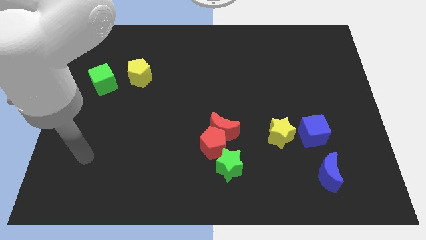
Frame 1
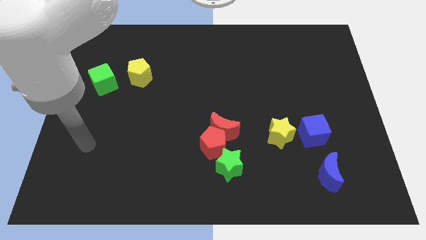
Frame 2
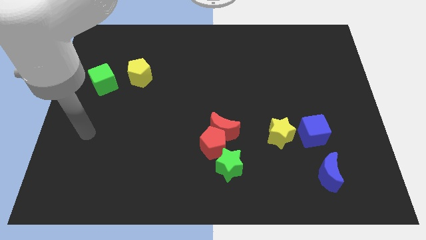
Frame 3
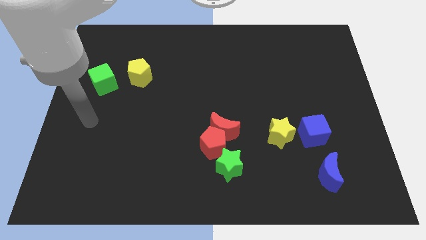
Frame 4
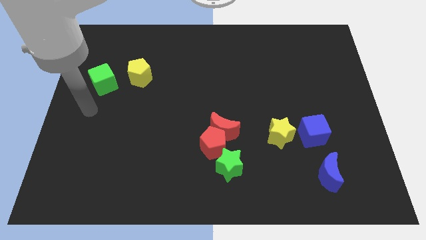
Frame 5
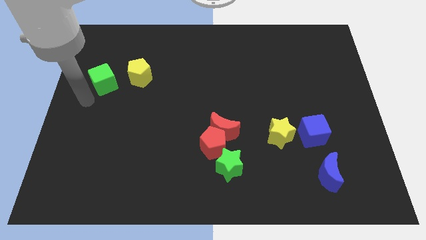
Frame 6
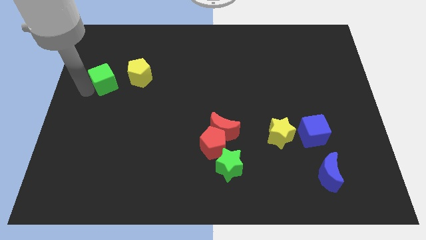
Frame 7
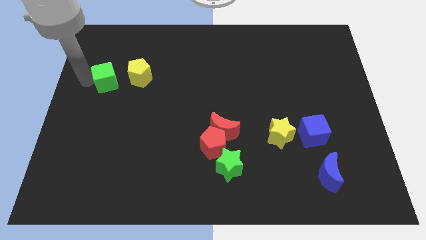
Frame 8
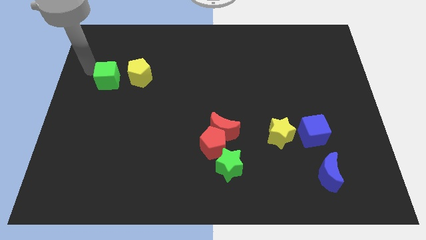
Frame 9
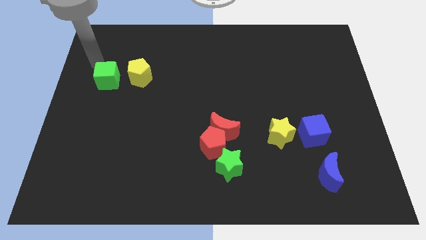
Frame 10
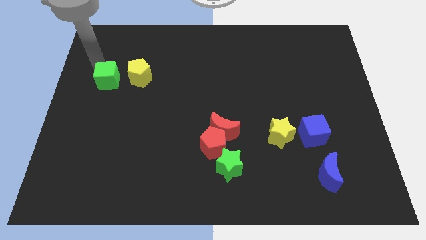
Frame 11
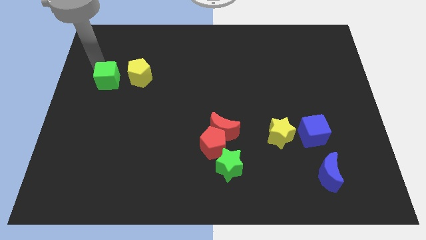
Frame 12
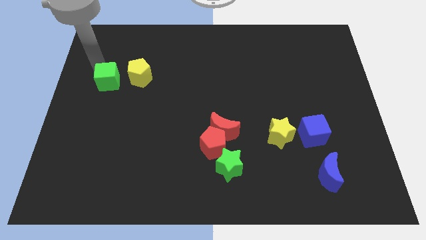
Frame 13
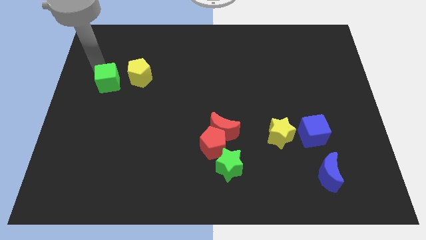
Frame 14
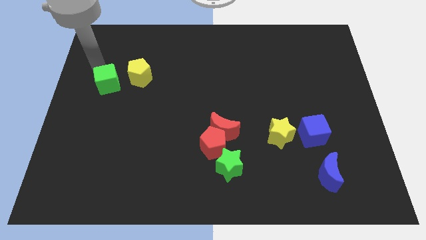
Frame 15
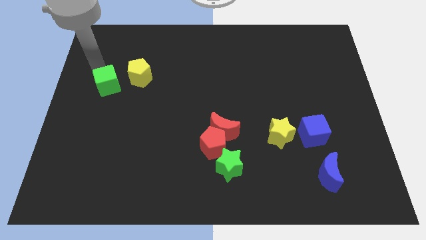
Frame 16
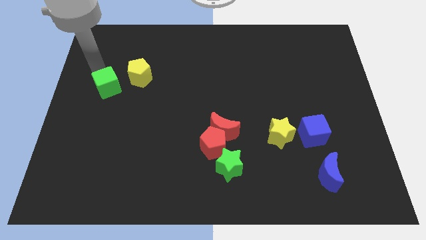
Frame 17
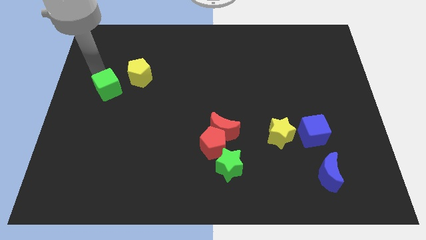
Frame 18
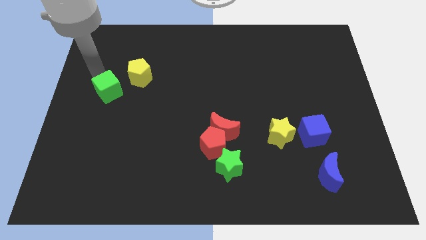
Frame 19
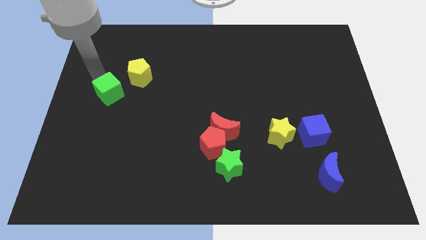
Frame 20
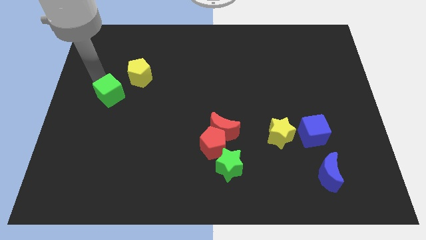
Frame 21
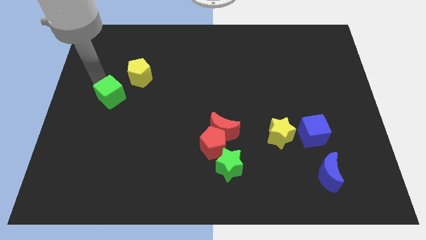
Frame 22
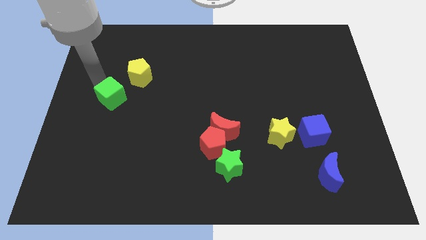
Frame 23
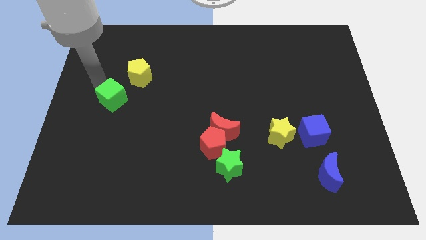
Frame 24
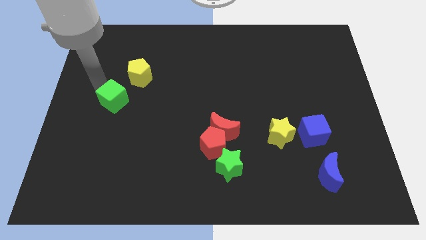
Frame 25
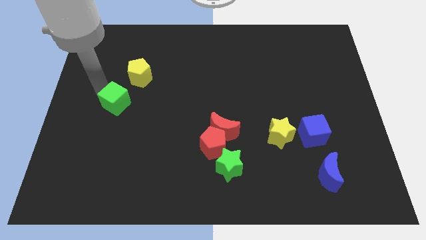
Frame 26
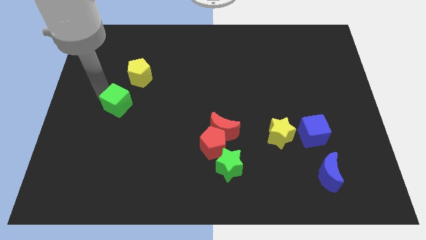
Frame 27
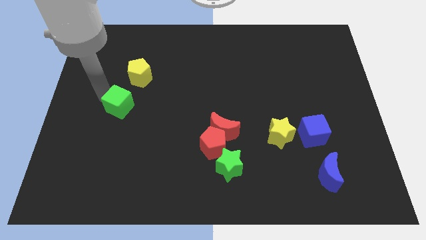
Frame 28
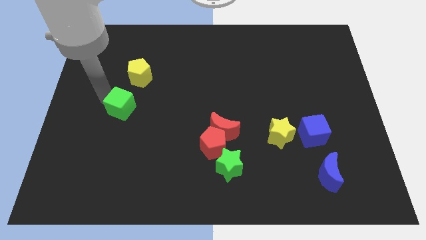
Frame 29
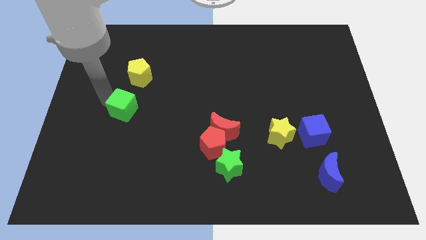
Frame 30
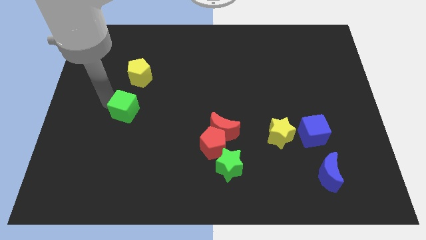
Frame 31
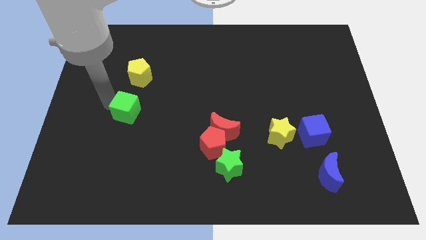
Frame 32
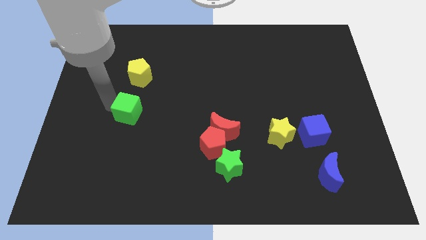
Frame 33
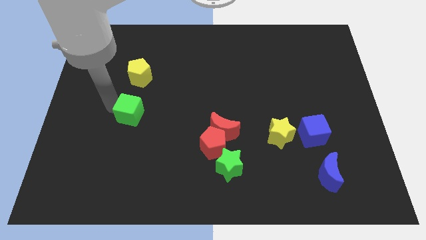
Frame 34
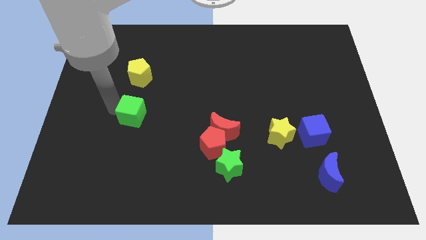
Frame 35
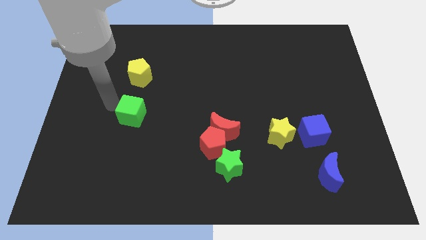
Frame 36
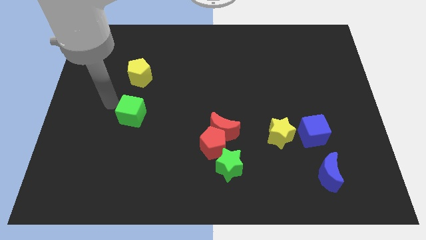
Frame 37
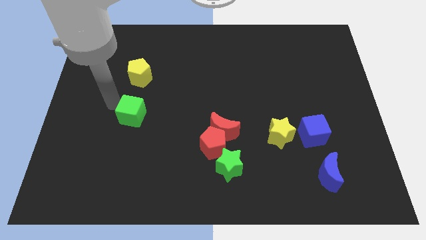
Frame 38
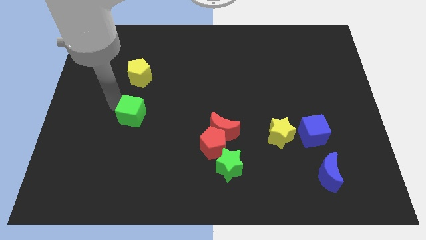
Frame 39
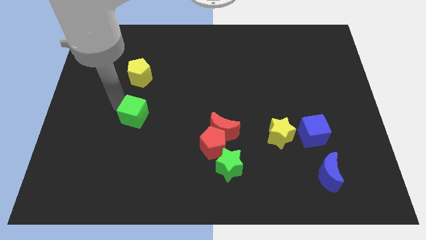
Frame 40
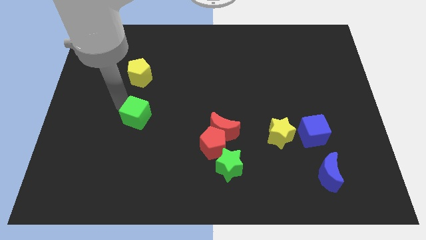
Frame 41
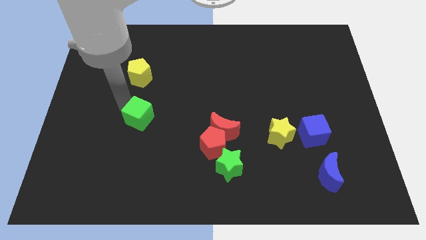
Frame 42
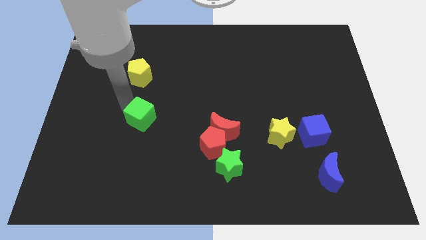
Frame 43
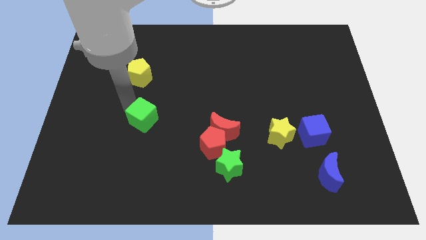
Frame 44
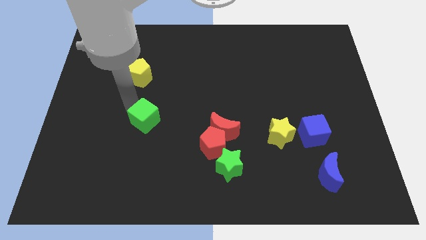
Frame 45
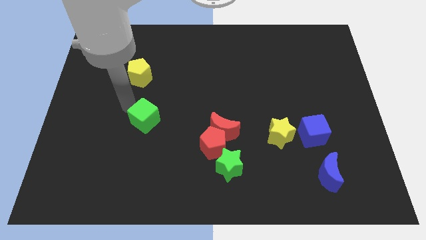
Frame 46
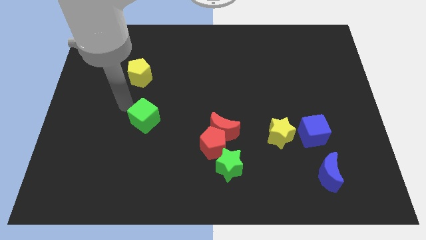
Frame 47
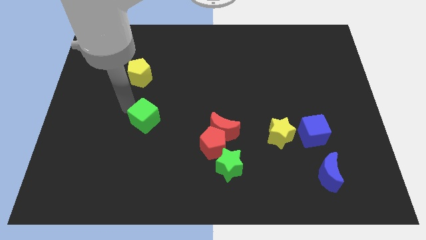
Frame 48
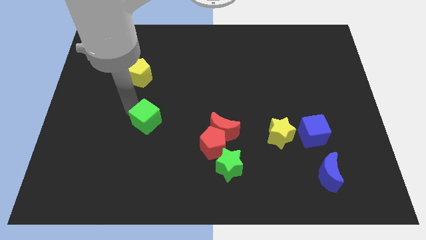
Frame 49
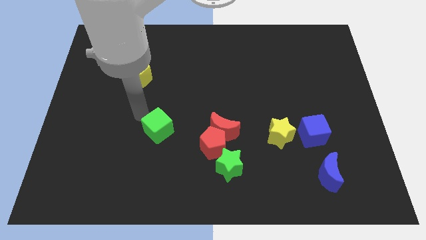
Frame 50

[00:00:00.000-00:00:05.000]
slide the green cube downwards and right diagonally

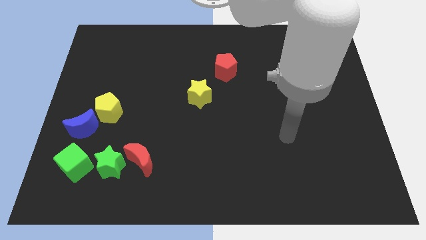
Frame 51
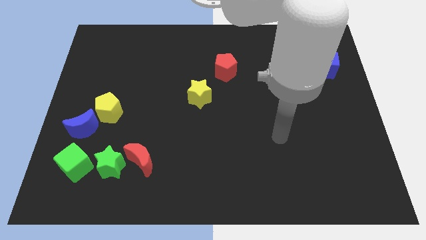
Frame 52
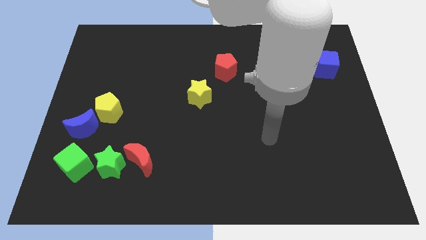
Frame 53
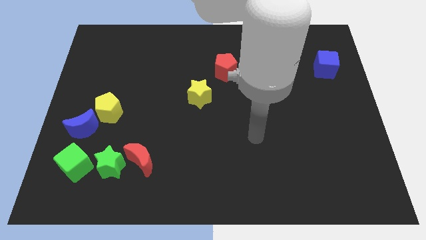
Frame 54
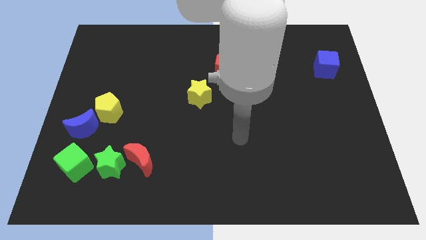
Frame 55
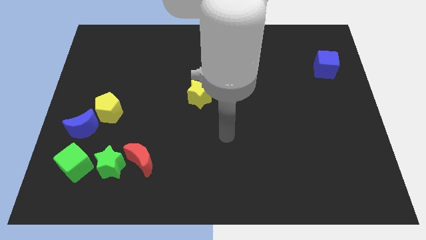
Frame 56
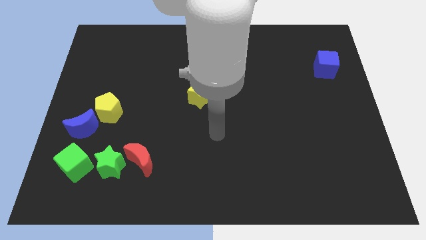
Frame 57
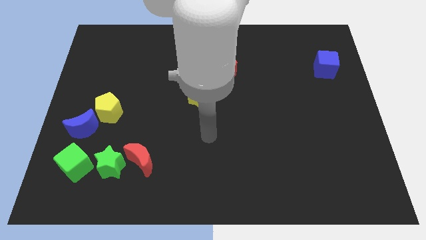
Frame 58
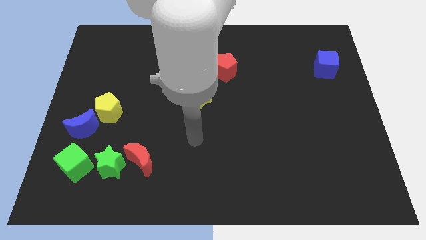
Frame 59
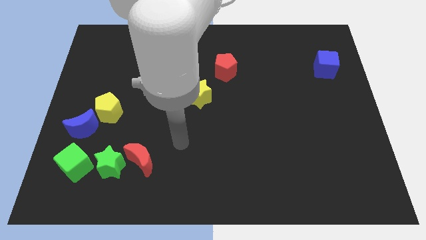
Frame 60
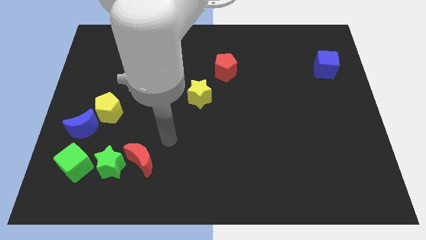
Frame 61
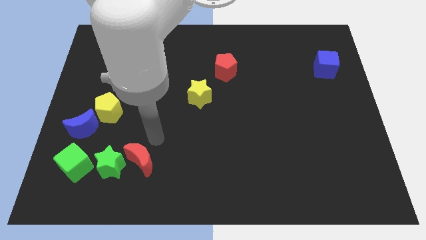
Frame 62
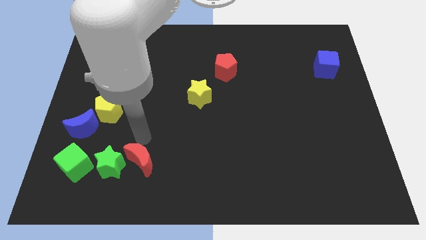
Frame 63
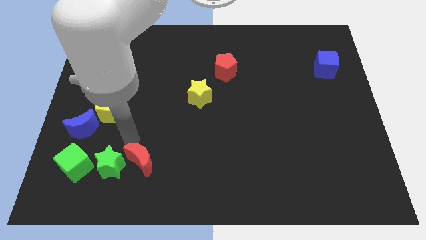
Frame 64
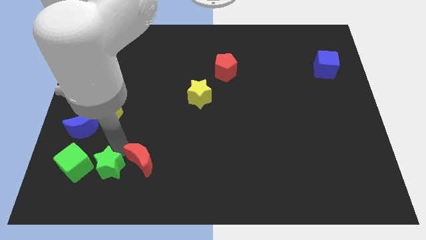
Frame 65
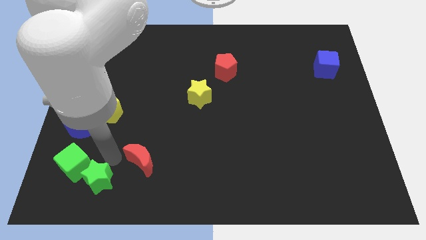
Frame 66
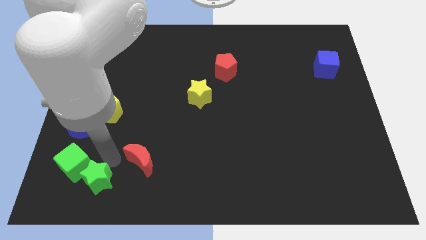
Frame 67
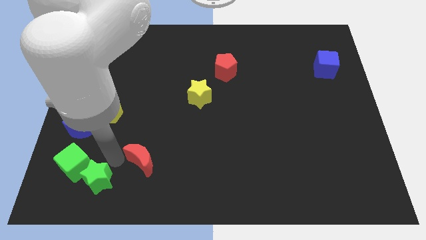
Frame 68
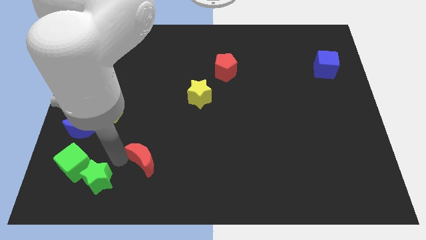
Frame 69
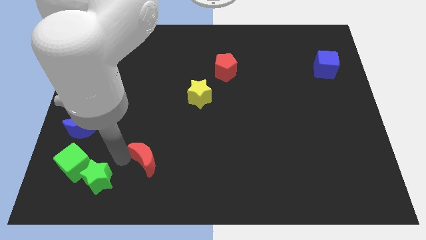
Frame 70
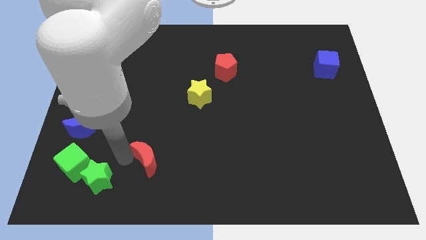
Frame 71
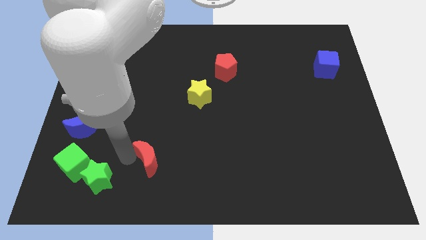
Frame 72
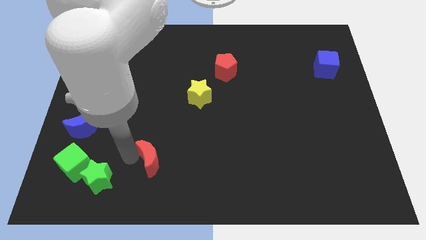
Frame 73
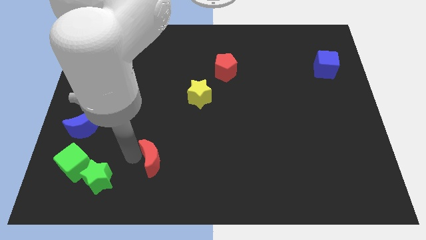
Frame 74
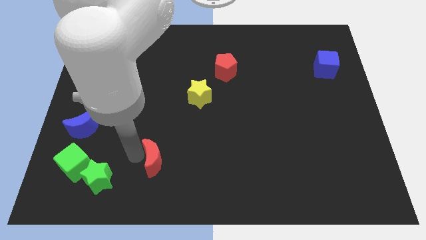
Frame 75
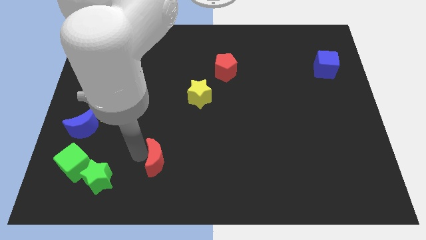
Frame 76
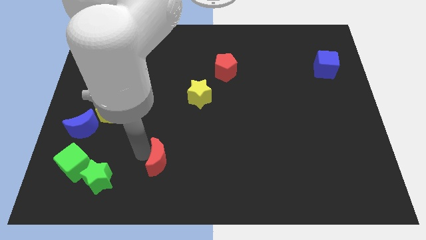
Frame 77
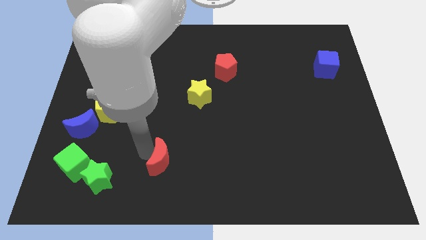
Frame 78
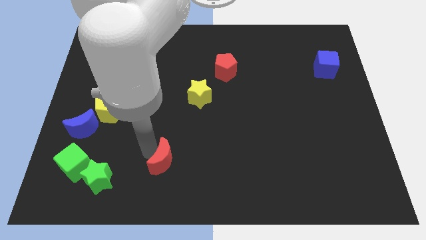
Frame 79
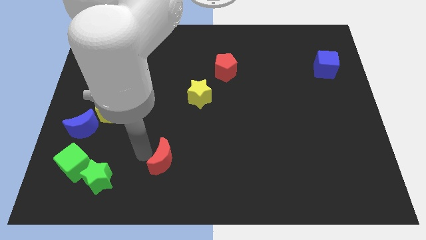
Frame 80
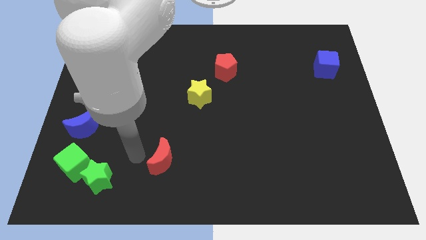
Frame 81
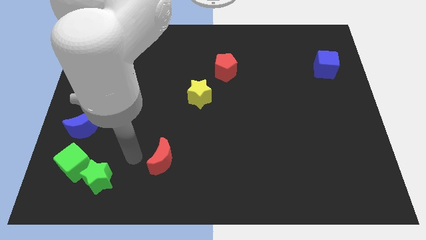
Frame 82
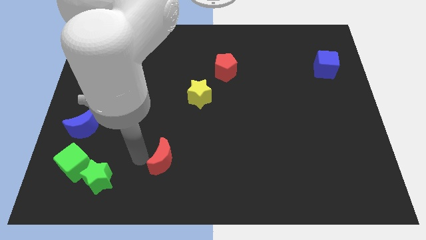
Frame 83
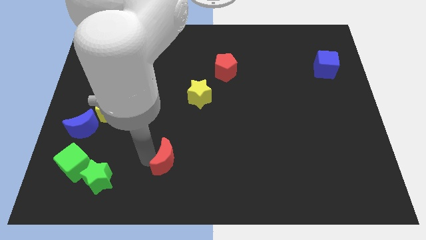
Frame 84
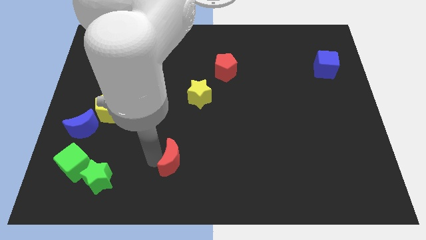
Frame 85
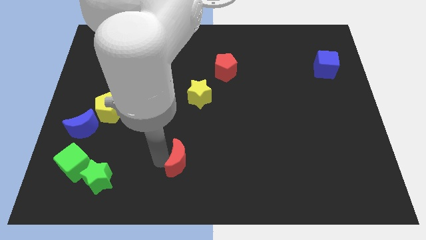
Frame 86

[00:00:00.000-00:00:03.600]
push the red moon to the right a little bit
